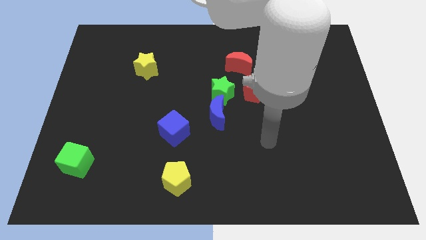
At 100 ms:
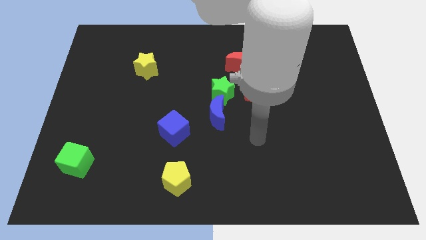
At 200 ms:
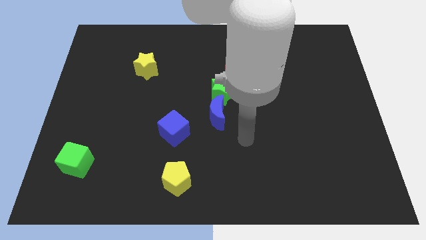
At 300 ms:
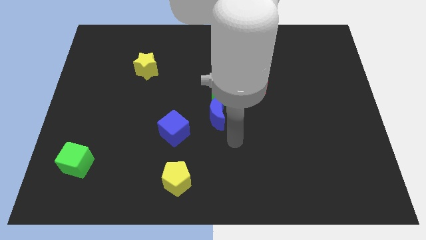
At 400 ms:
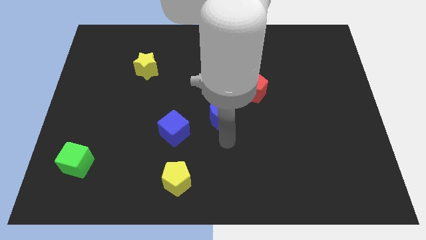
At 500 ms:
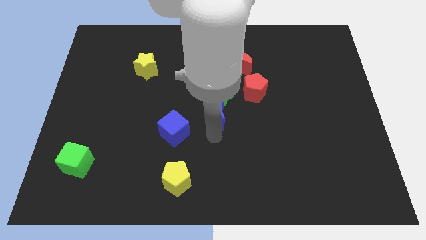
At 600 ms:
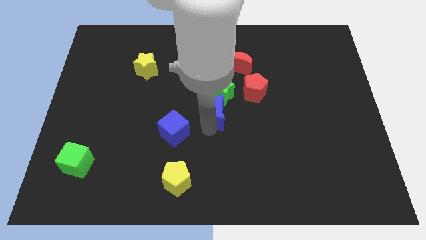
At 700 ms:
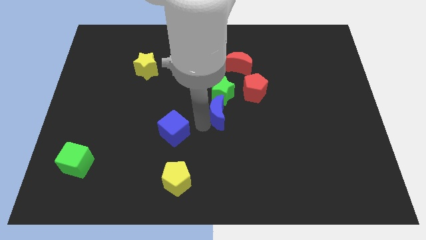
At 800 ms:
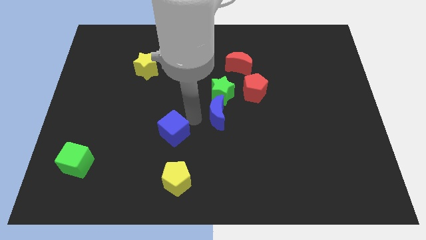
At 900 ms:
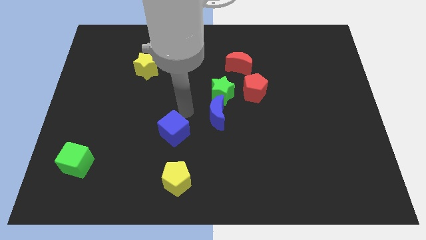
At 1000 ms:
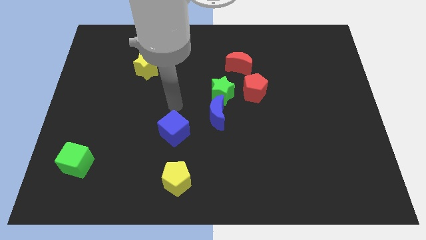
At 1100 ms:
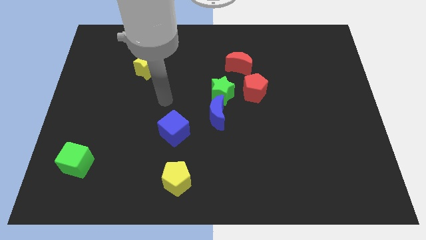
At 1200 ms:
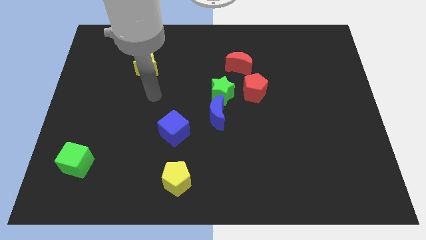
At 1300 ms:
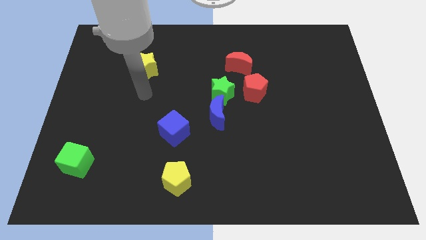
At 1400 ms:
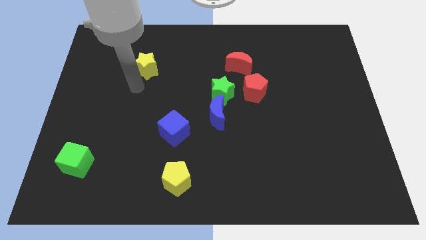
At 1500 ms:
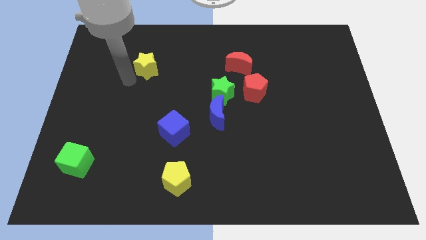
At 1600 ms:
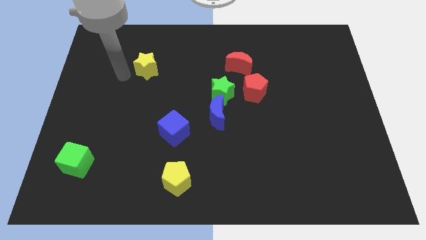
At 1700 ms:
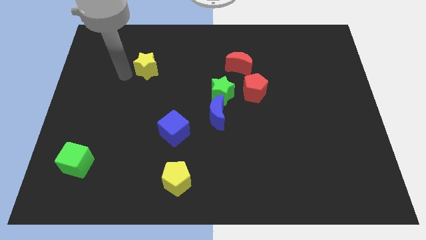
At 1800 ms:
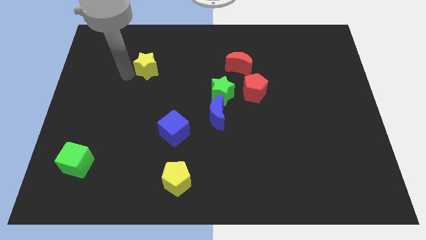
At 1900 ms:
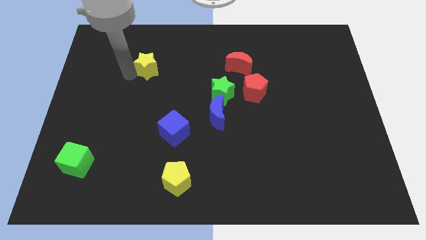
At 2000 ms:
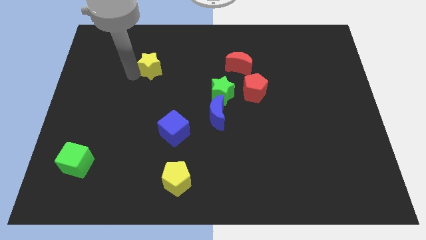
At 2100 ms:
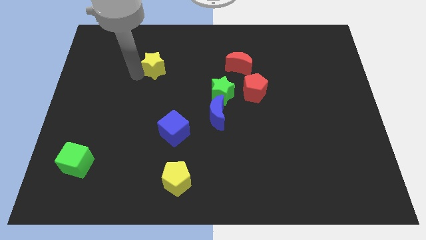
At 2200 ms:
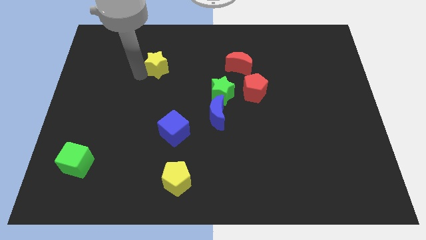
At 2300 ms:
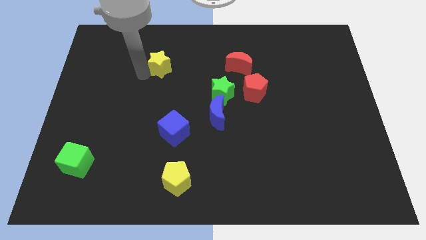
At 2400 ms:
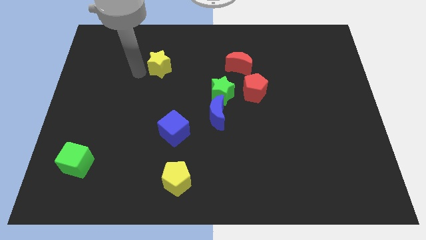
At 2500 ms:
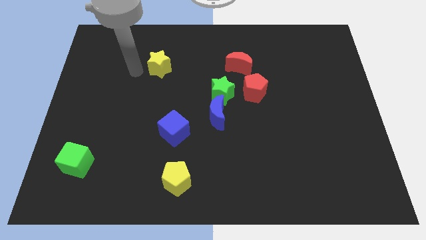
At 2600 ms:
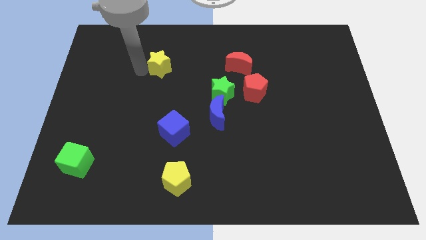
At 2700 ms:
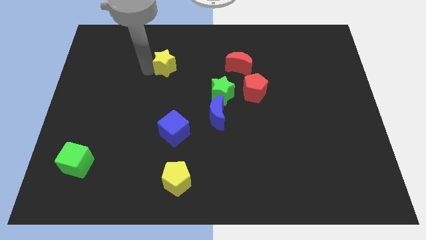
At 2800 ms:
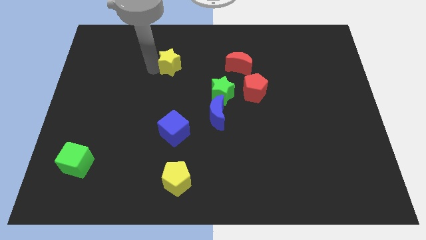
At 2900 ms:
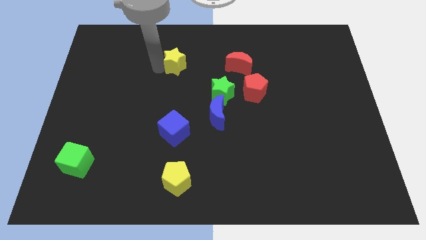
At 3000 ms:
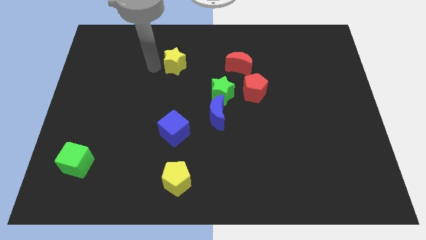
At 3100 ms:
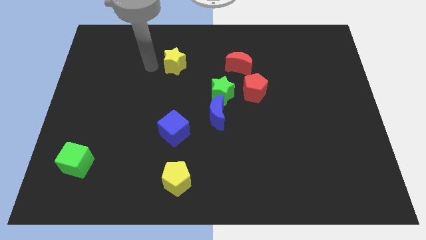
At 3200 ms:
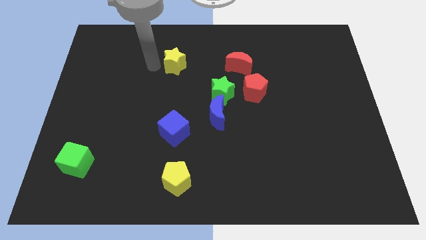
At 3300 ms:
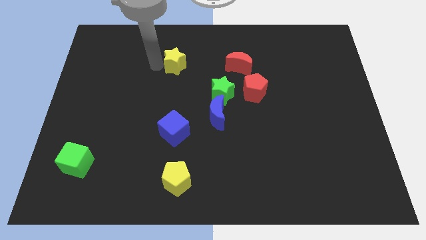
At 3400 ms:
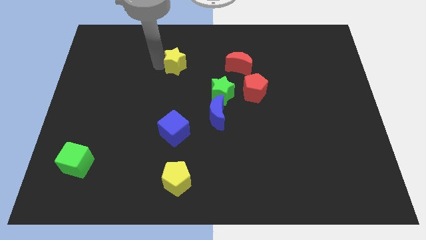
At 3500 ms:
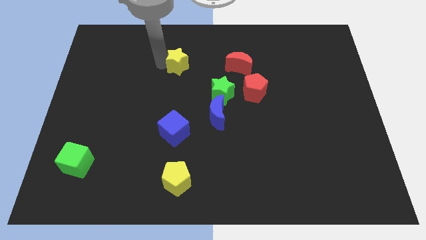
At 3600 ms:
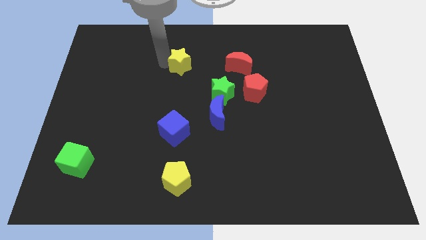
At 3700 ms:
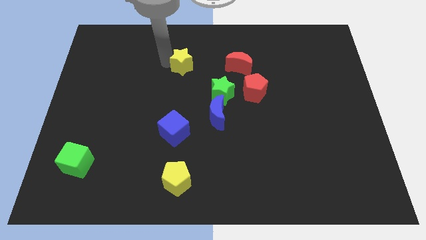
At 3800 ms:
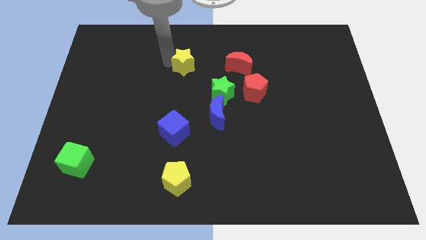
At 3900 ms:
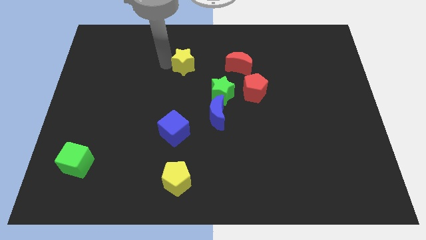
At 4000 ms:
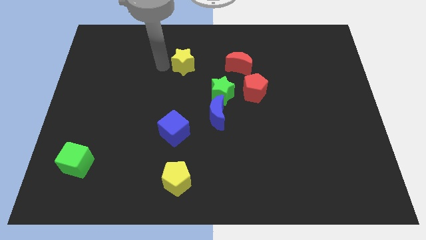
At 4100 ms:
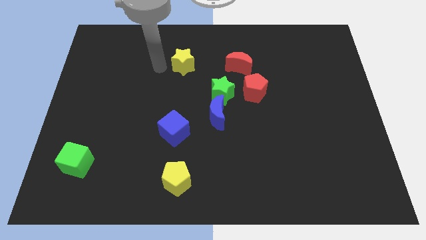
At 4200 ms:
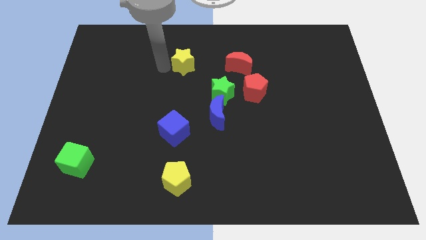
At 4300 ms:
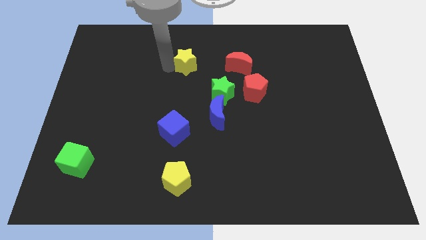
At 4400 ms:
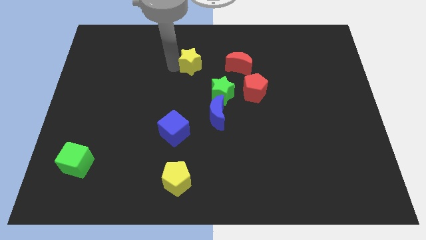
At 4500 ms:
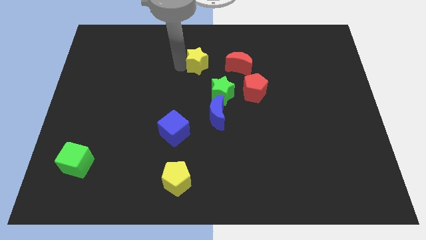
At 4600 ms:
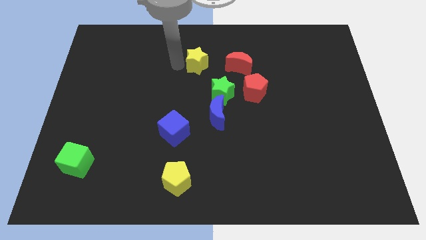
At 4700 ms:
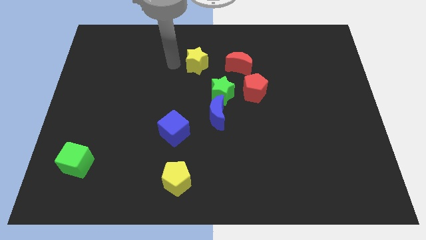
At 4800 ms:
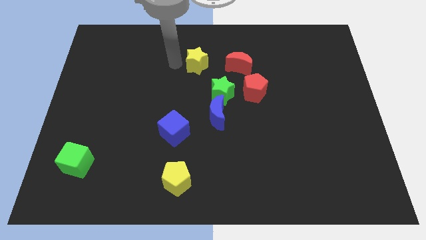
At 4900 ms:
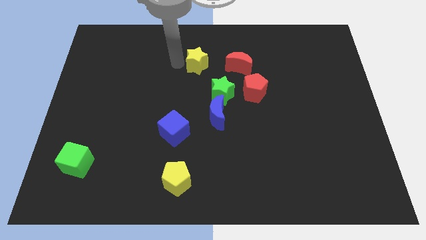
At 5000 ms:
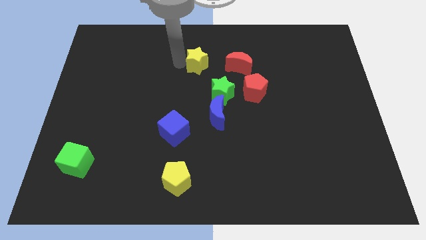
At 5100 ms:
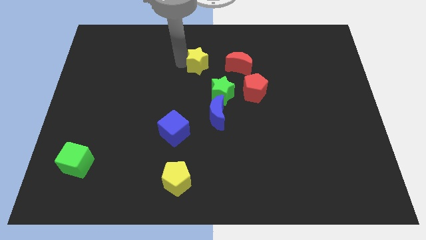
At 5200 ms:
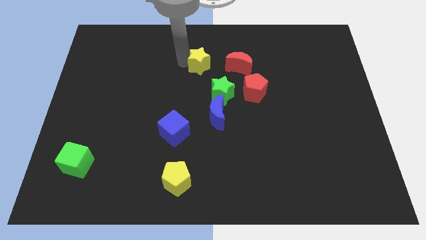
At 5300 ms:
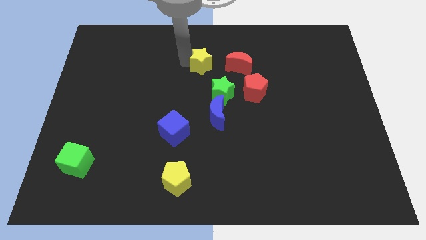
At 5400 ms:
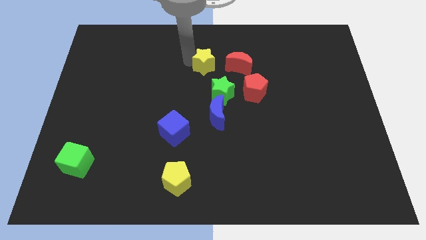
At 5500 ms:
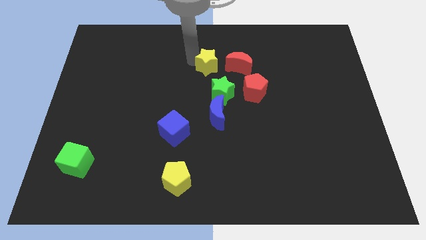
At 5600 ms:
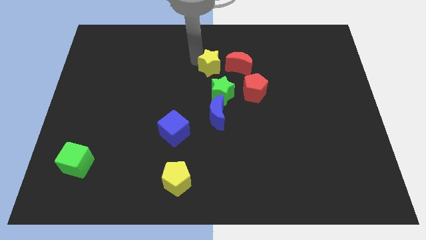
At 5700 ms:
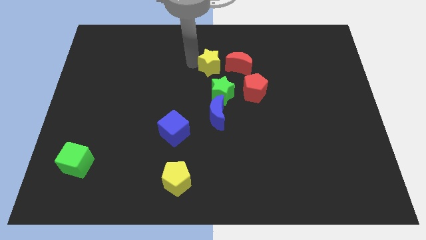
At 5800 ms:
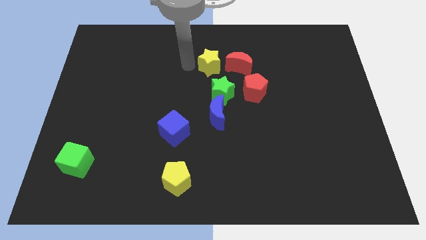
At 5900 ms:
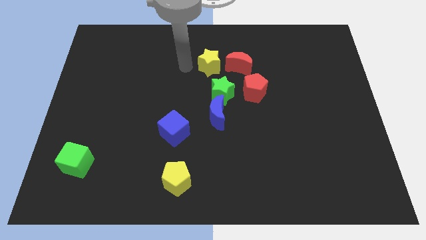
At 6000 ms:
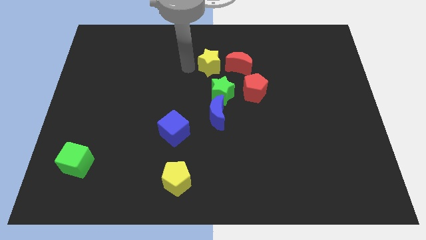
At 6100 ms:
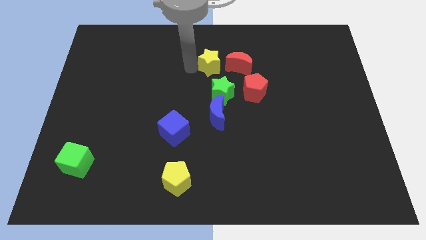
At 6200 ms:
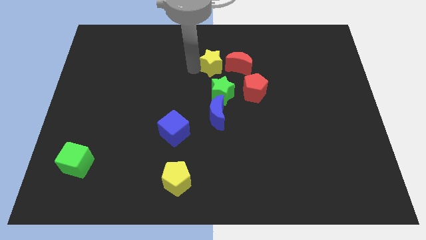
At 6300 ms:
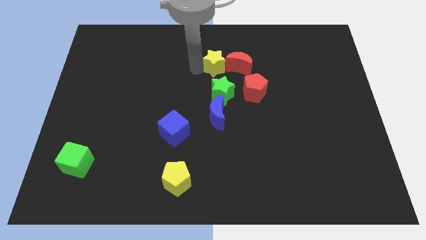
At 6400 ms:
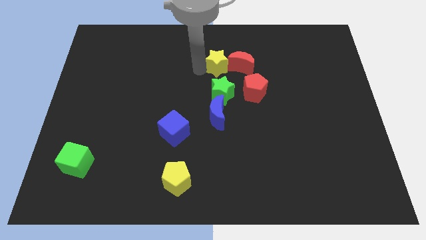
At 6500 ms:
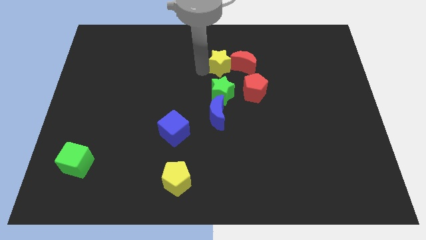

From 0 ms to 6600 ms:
put the yellow star to the red moon

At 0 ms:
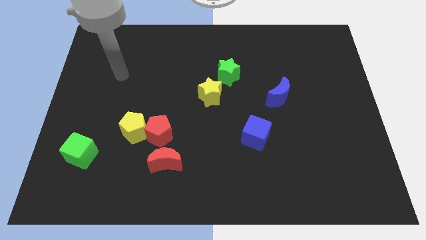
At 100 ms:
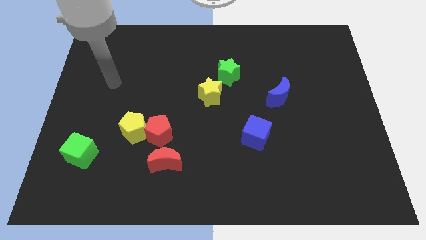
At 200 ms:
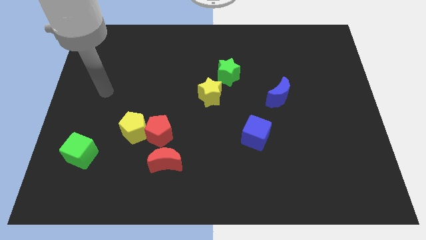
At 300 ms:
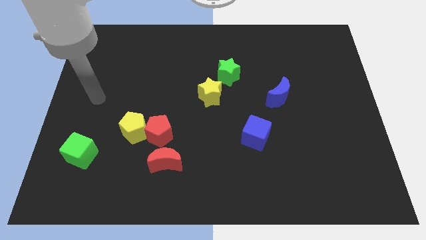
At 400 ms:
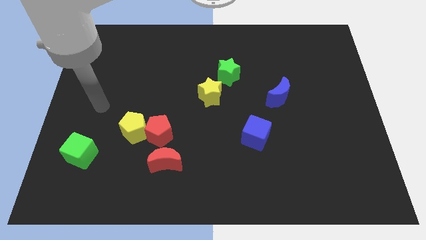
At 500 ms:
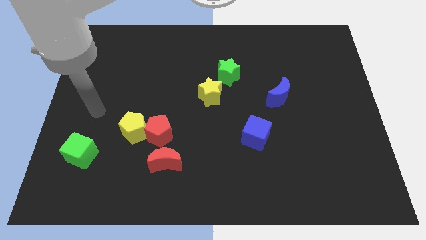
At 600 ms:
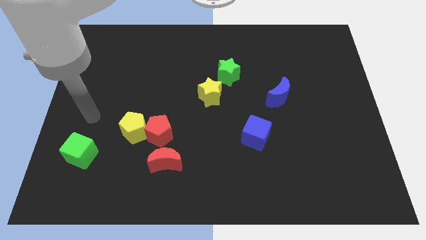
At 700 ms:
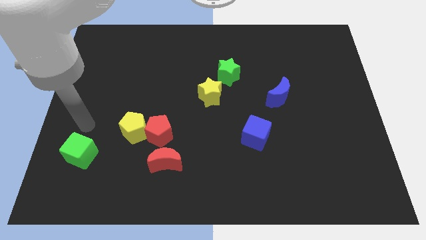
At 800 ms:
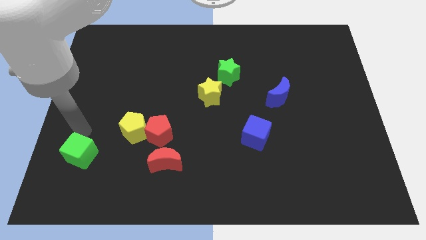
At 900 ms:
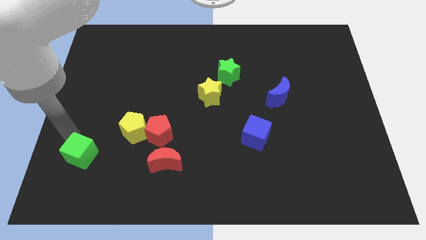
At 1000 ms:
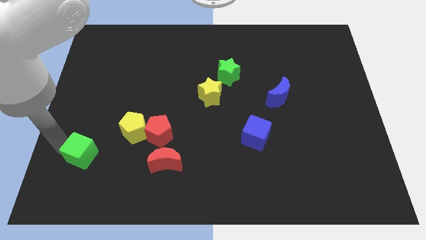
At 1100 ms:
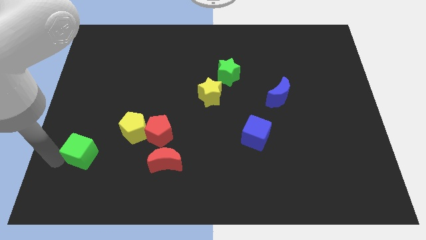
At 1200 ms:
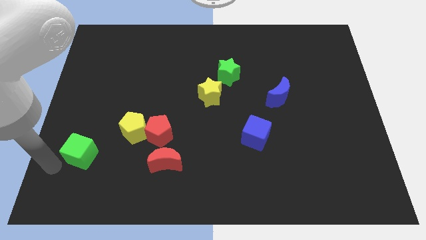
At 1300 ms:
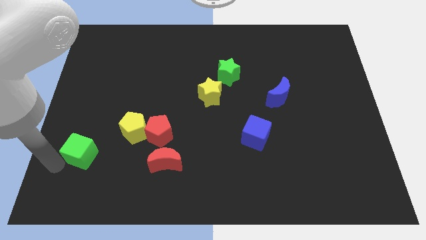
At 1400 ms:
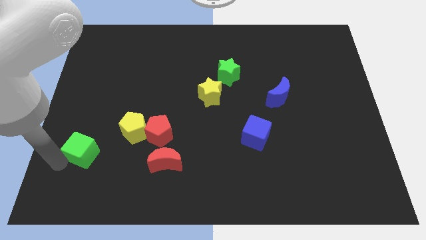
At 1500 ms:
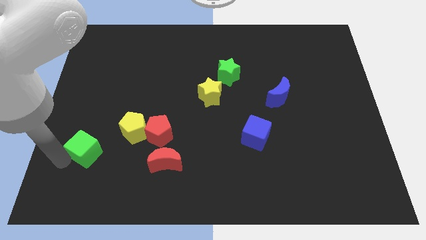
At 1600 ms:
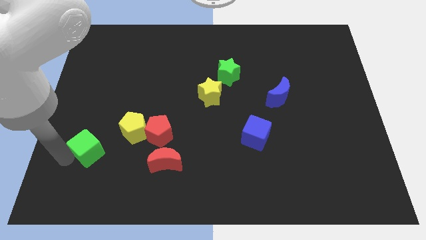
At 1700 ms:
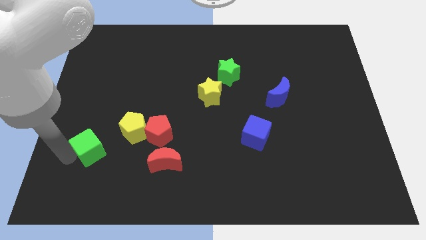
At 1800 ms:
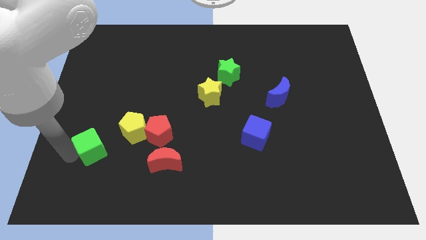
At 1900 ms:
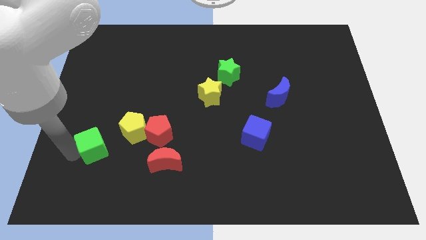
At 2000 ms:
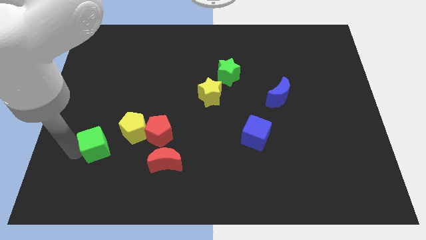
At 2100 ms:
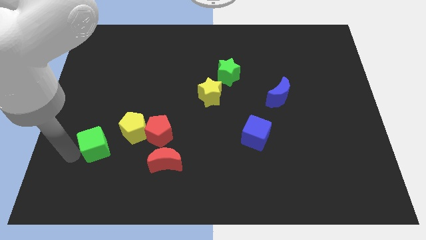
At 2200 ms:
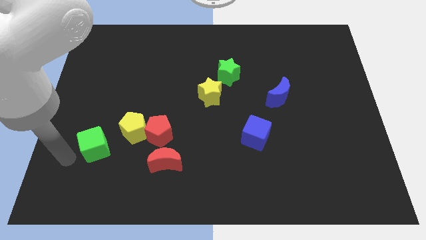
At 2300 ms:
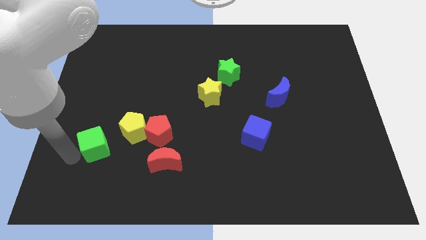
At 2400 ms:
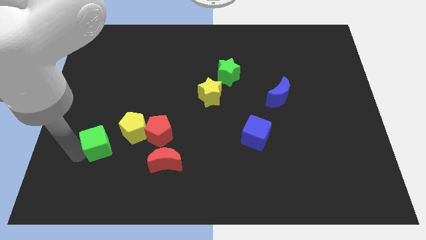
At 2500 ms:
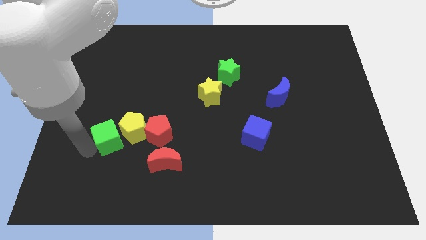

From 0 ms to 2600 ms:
put the green cube to the yellow pentagon
